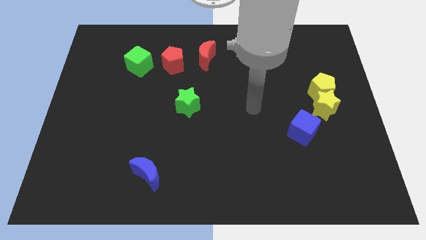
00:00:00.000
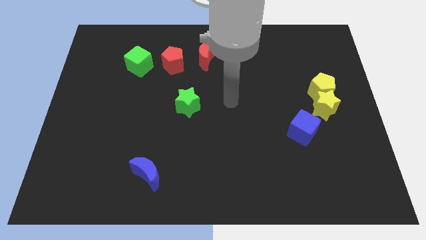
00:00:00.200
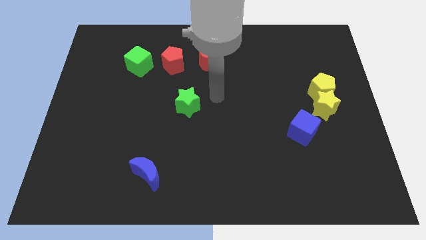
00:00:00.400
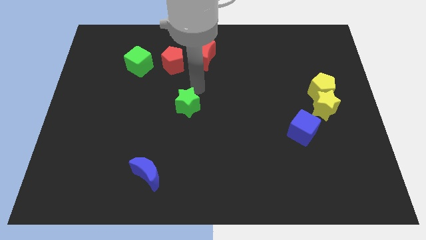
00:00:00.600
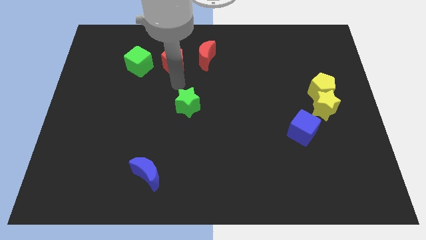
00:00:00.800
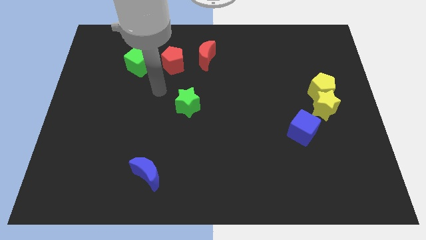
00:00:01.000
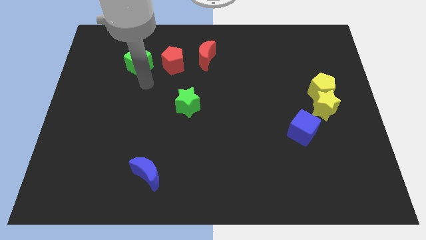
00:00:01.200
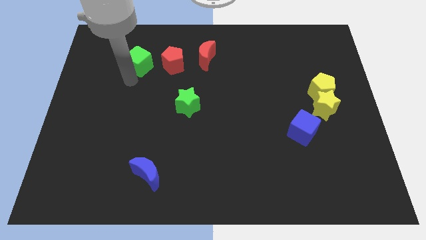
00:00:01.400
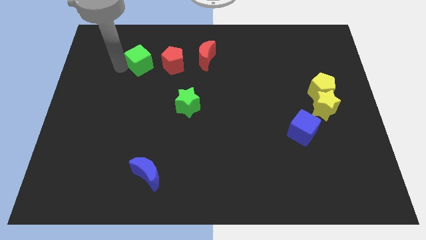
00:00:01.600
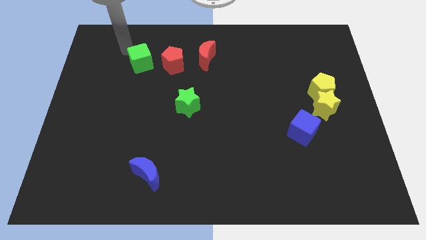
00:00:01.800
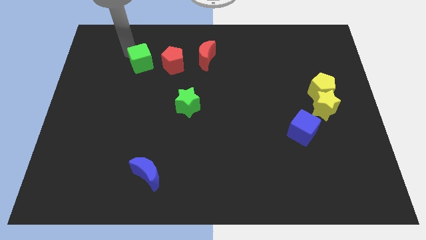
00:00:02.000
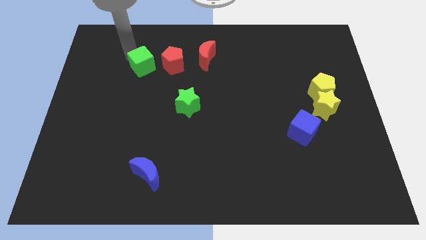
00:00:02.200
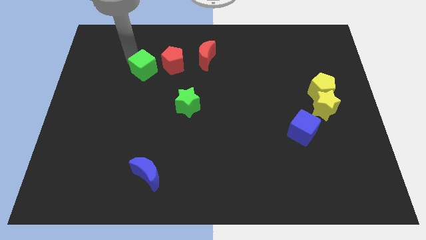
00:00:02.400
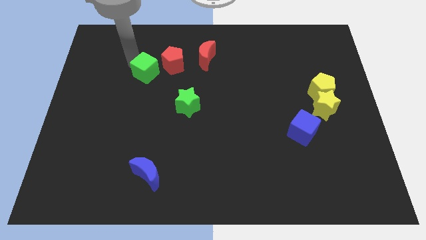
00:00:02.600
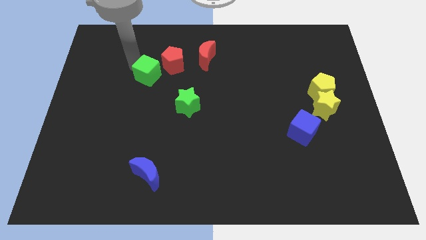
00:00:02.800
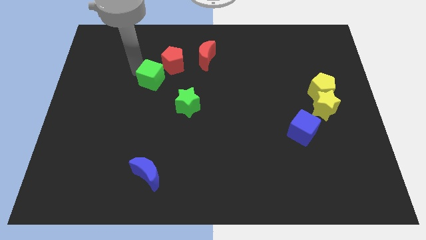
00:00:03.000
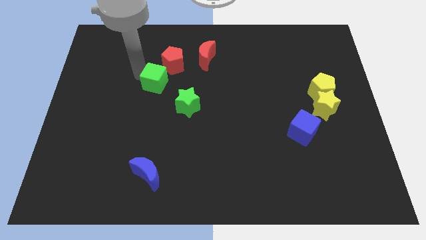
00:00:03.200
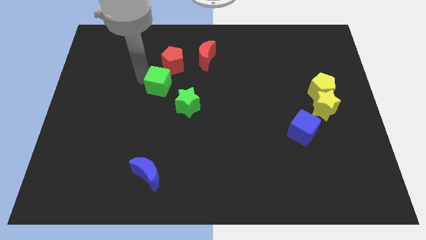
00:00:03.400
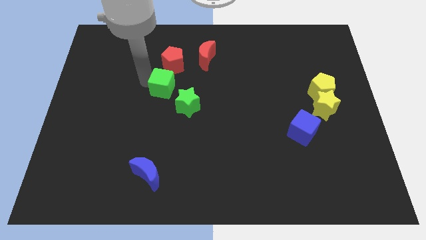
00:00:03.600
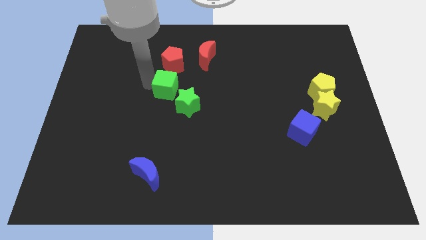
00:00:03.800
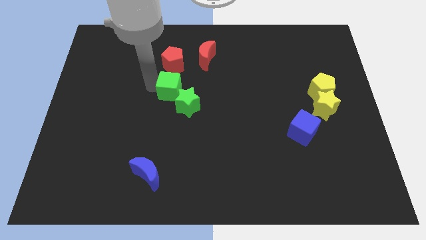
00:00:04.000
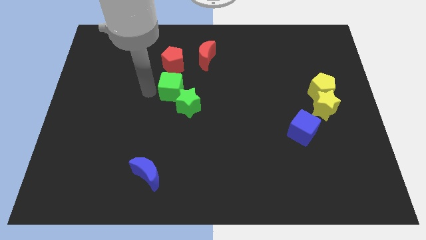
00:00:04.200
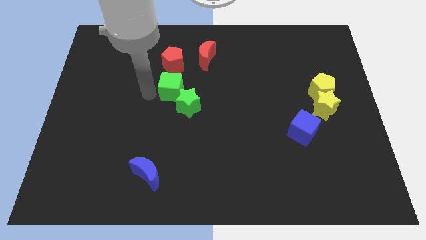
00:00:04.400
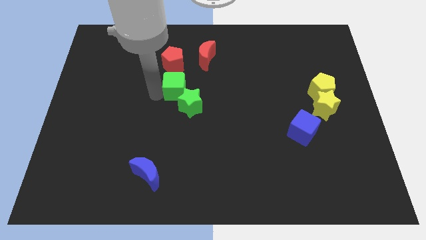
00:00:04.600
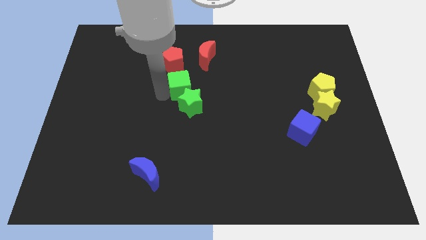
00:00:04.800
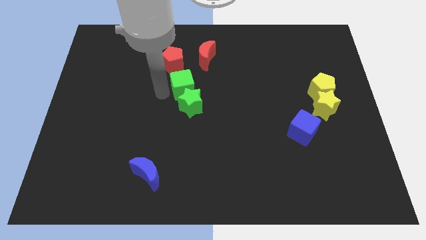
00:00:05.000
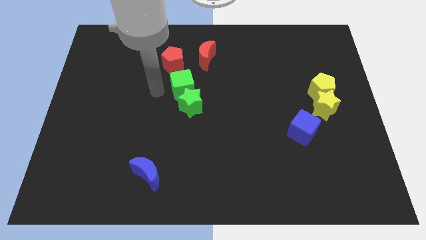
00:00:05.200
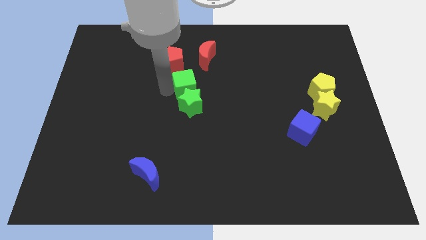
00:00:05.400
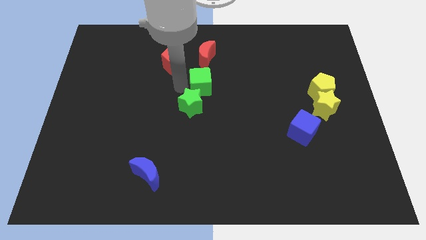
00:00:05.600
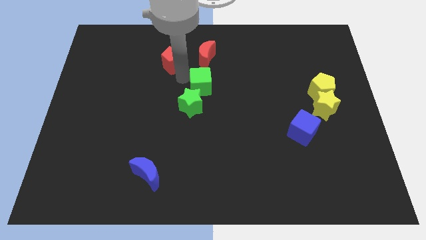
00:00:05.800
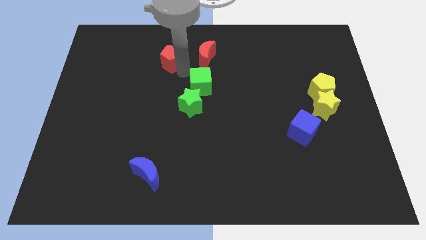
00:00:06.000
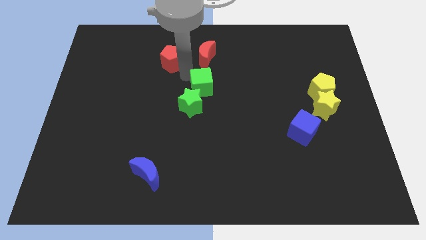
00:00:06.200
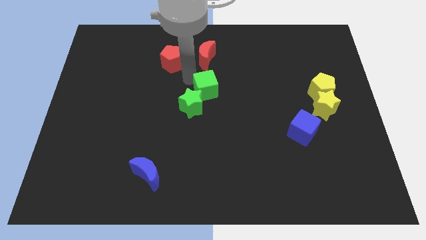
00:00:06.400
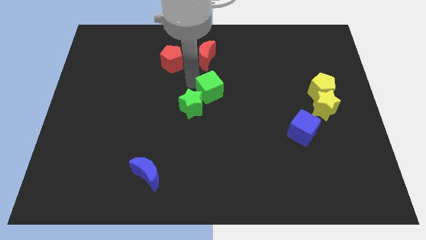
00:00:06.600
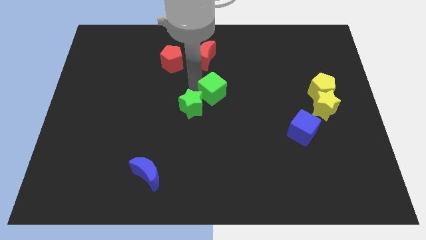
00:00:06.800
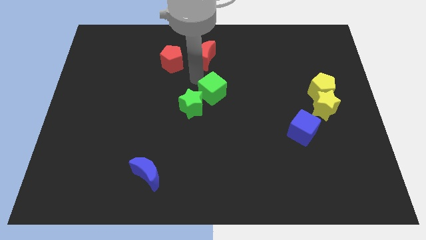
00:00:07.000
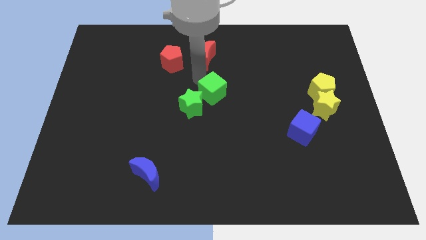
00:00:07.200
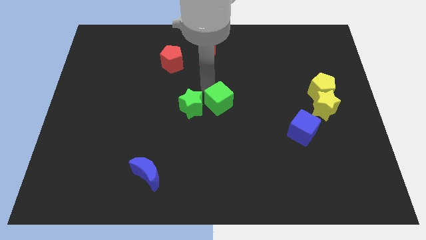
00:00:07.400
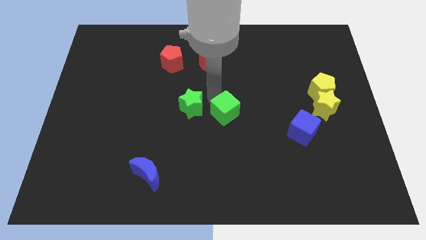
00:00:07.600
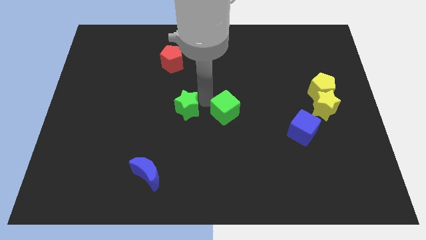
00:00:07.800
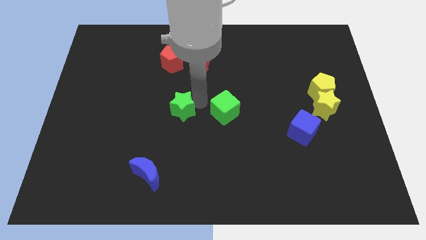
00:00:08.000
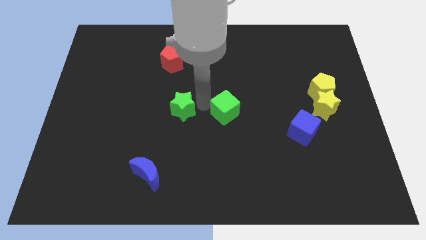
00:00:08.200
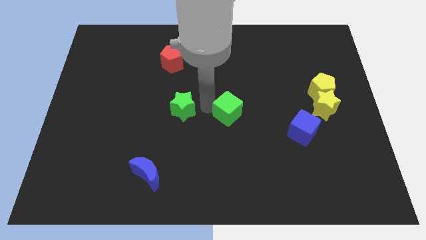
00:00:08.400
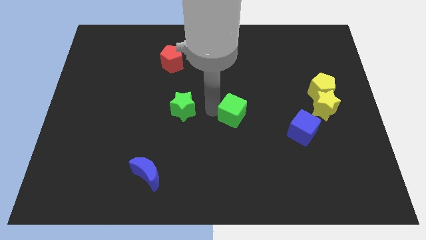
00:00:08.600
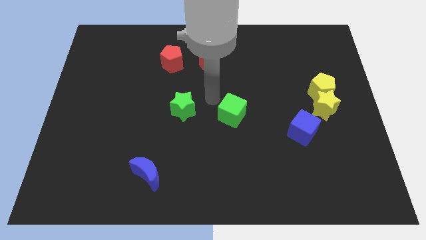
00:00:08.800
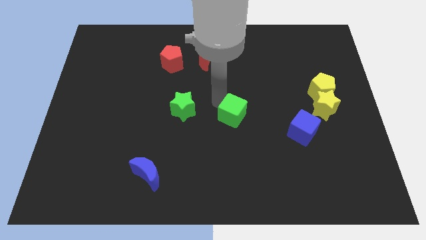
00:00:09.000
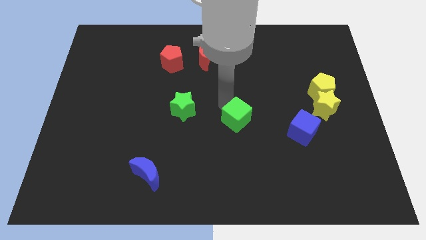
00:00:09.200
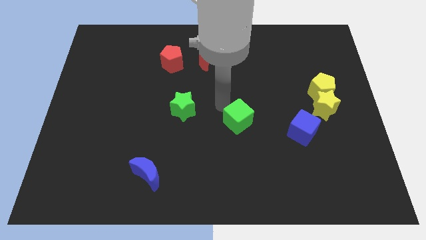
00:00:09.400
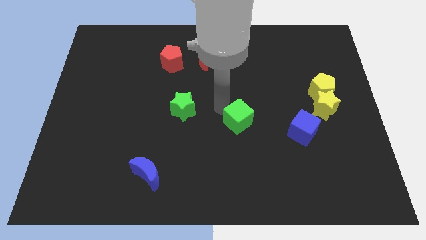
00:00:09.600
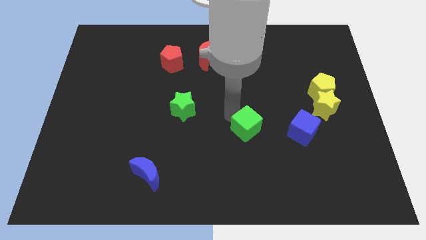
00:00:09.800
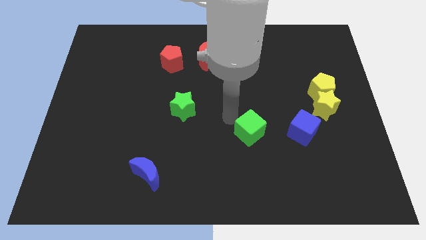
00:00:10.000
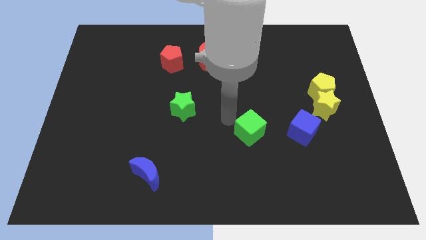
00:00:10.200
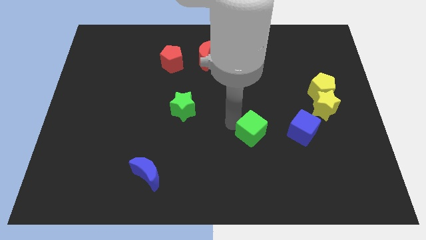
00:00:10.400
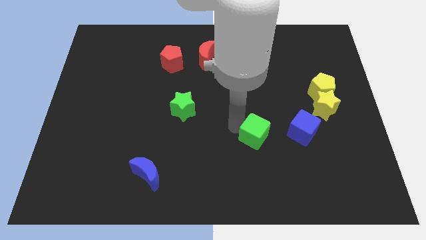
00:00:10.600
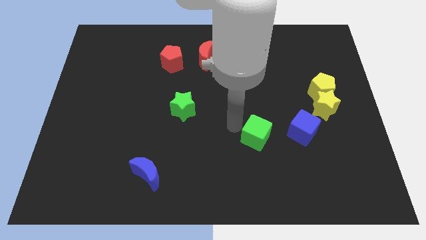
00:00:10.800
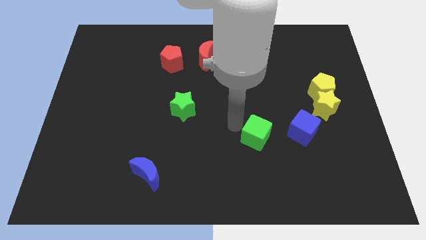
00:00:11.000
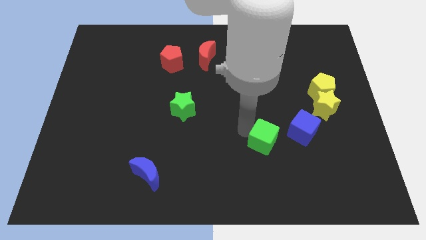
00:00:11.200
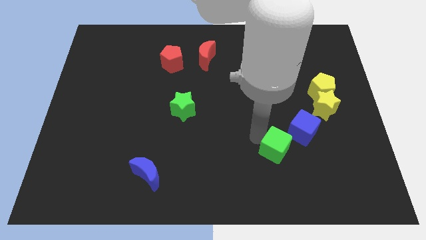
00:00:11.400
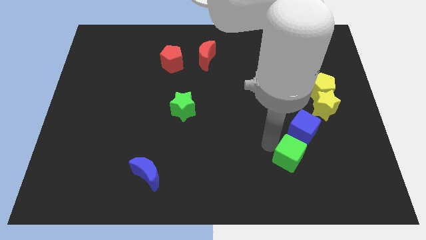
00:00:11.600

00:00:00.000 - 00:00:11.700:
slide the green cube to the bottom side of the blue cube

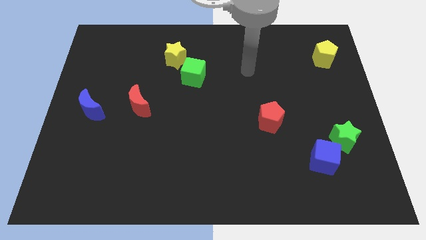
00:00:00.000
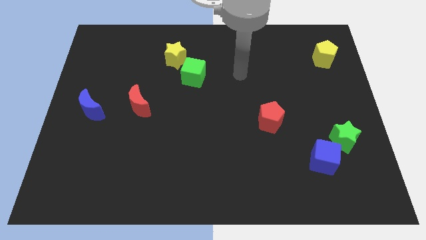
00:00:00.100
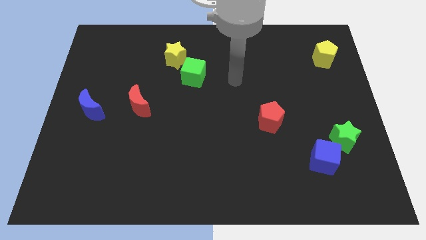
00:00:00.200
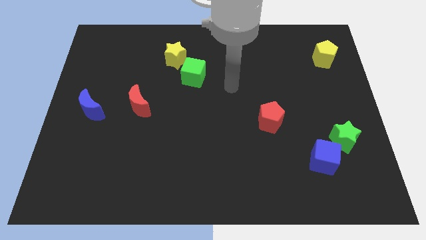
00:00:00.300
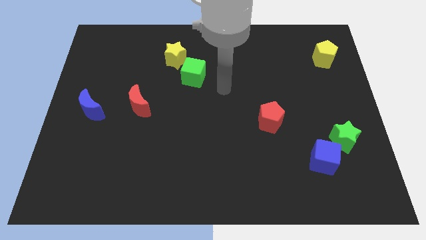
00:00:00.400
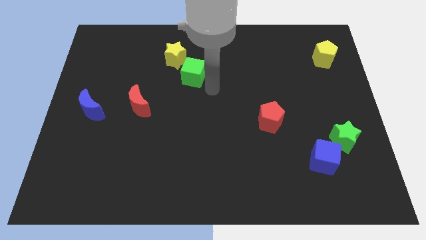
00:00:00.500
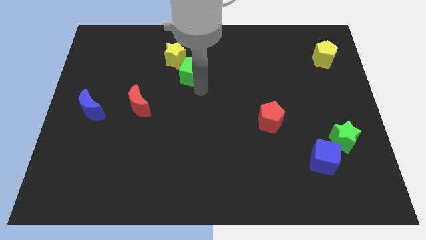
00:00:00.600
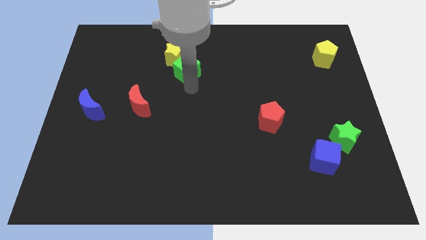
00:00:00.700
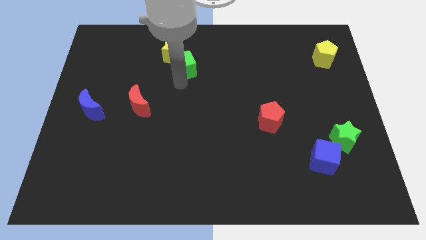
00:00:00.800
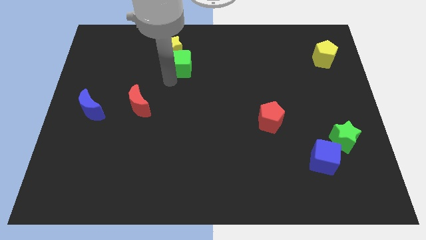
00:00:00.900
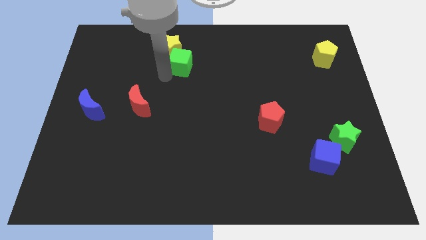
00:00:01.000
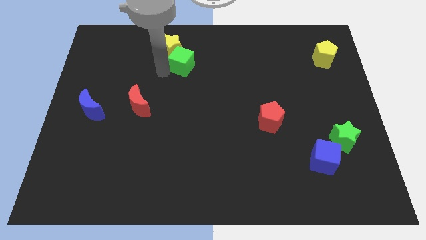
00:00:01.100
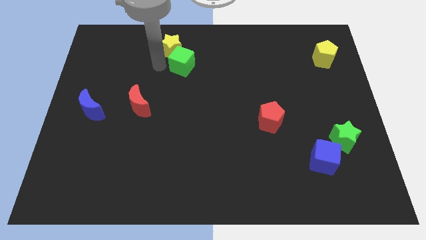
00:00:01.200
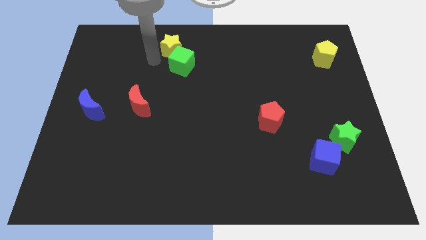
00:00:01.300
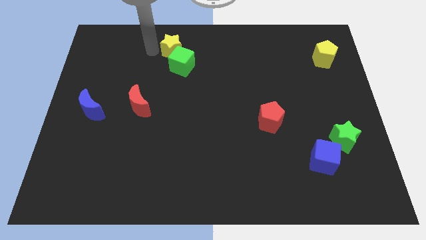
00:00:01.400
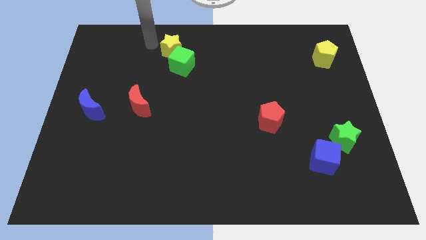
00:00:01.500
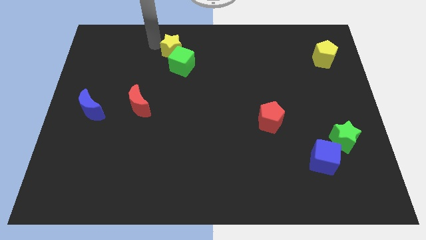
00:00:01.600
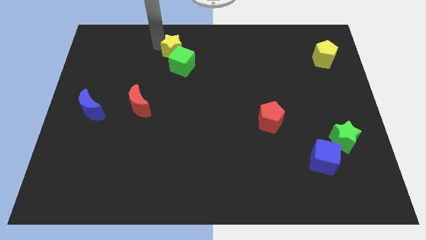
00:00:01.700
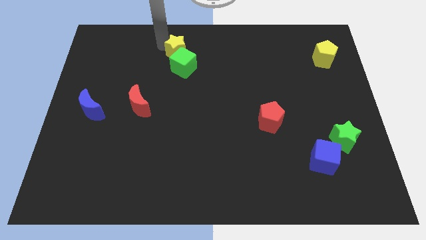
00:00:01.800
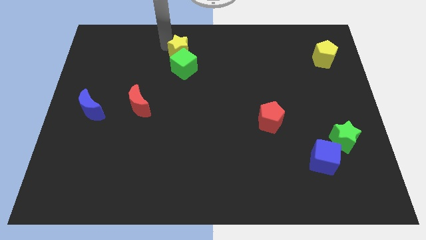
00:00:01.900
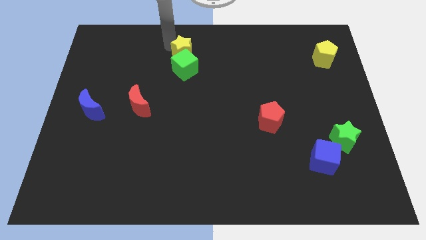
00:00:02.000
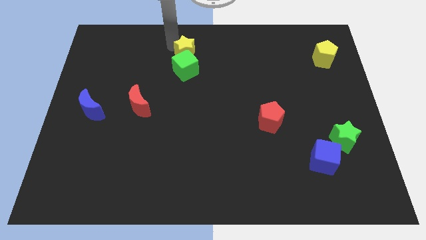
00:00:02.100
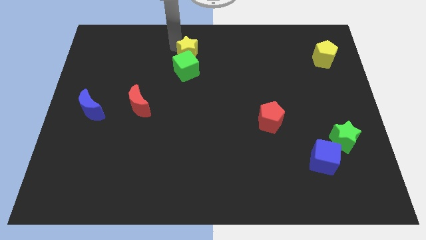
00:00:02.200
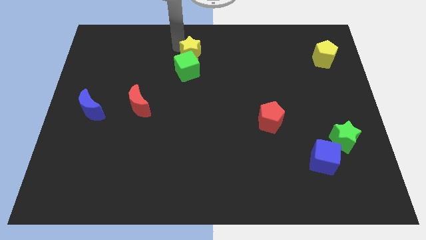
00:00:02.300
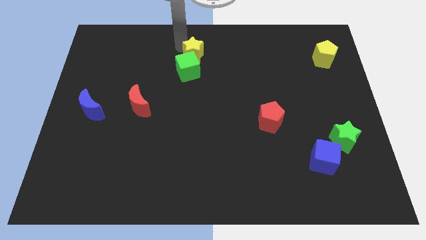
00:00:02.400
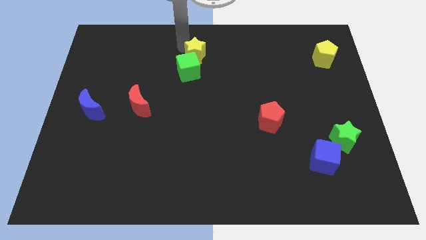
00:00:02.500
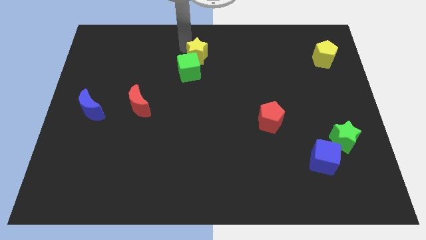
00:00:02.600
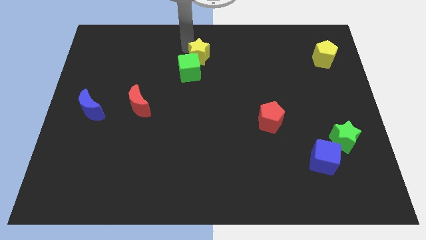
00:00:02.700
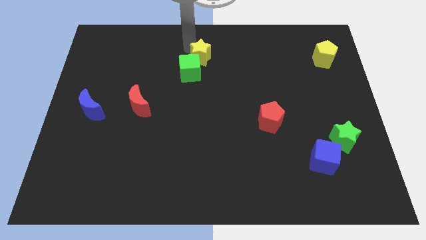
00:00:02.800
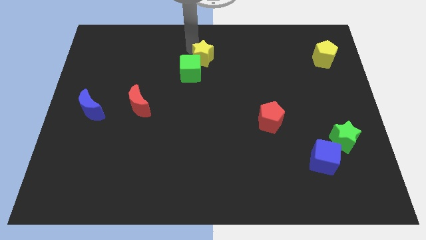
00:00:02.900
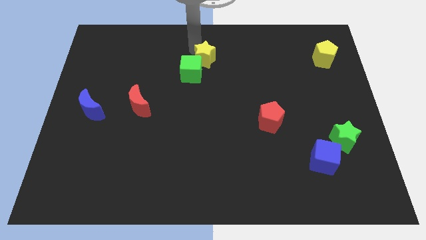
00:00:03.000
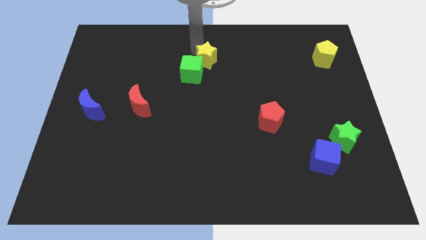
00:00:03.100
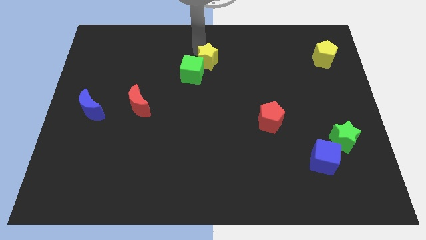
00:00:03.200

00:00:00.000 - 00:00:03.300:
move the yellow star just right of the green cube
